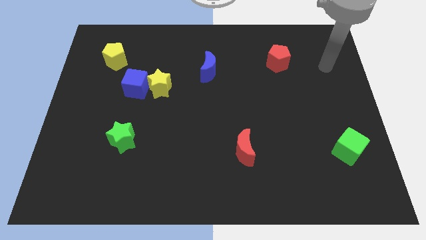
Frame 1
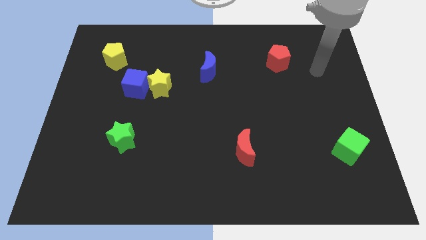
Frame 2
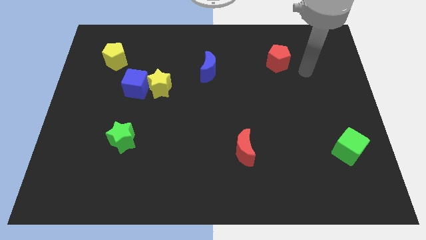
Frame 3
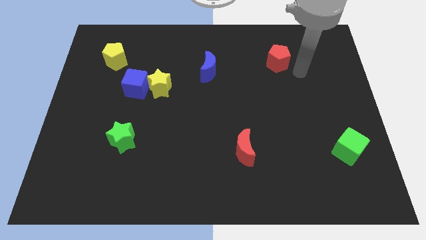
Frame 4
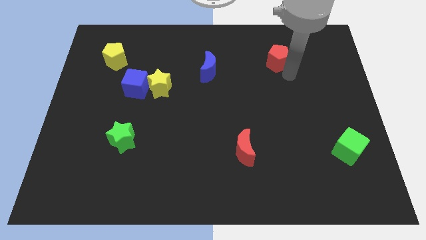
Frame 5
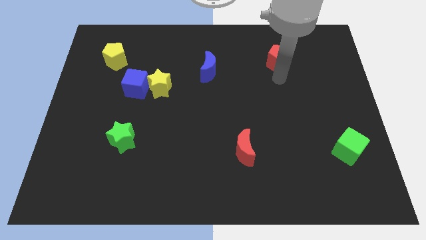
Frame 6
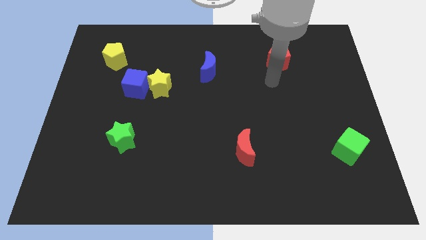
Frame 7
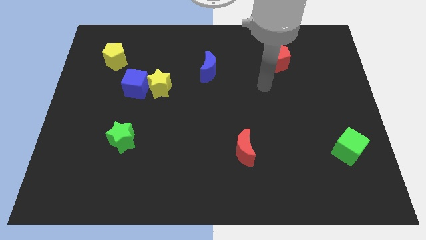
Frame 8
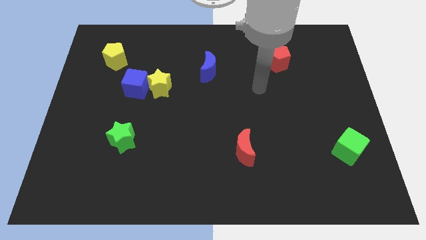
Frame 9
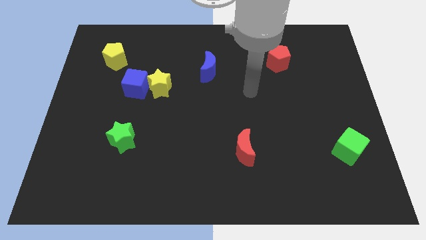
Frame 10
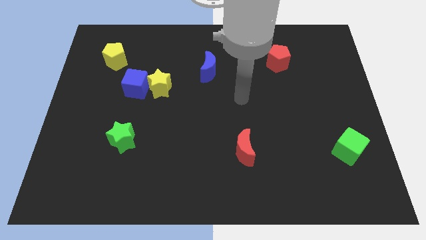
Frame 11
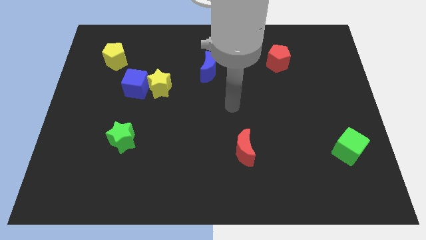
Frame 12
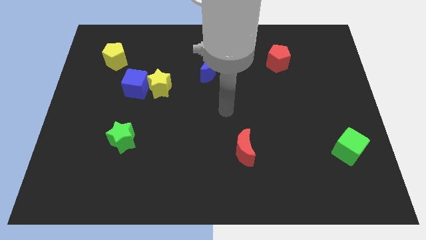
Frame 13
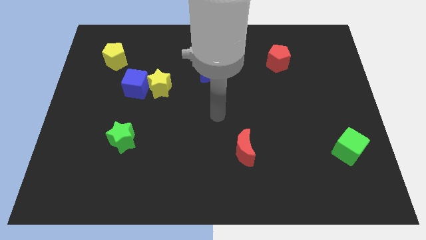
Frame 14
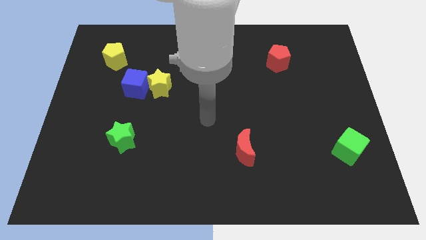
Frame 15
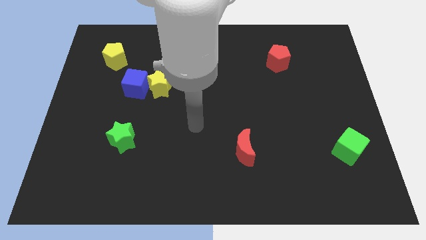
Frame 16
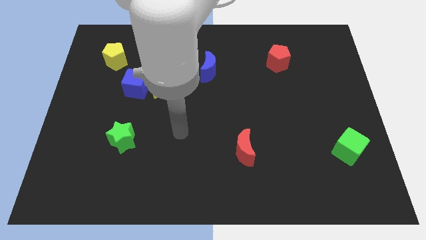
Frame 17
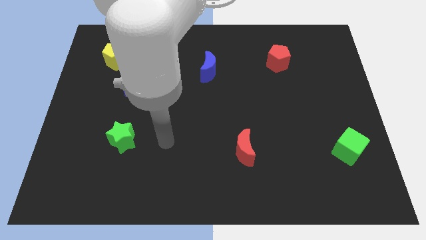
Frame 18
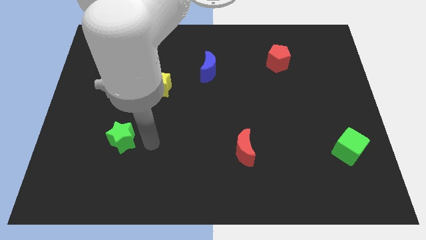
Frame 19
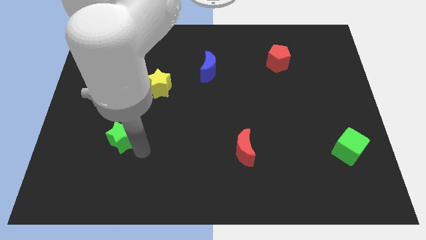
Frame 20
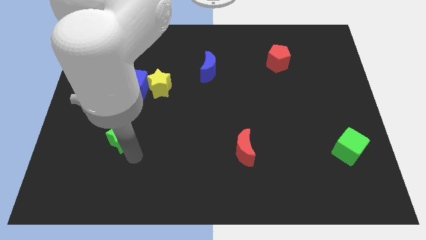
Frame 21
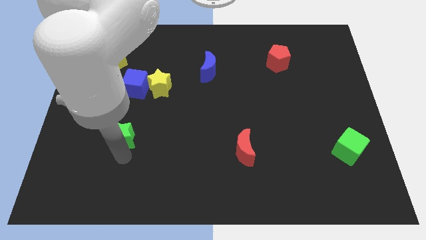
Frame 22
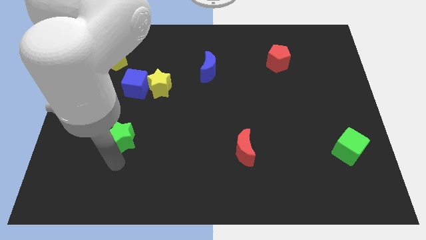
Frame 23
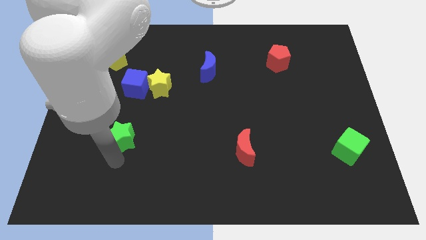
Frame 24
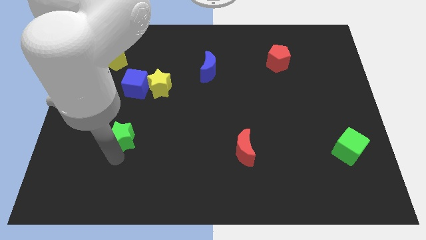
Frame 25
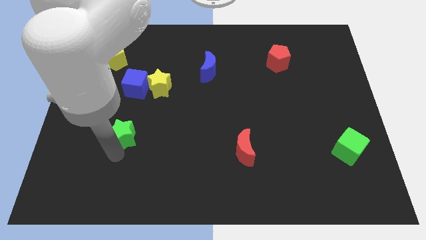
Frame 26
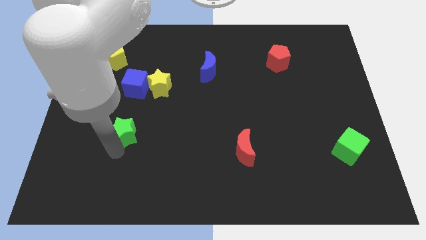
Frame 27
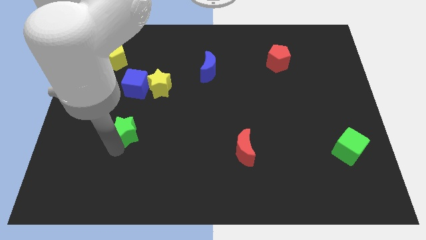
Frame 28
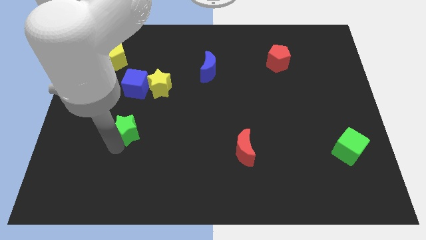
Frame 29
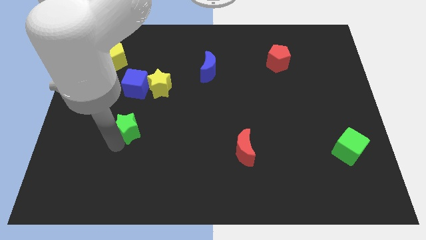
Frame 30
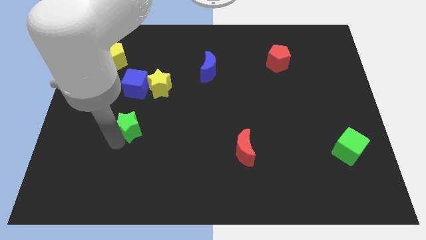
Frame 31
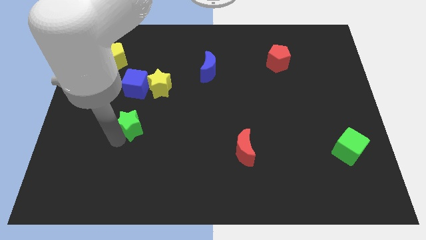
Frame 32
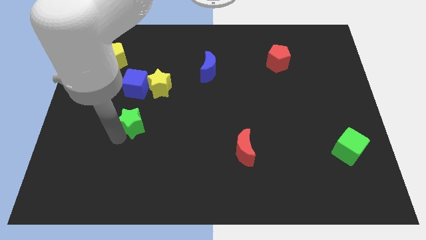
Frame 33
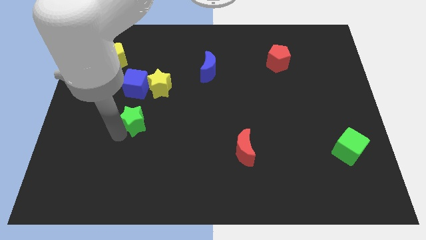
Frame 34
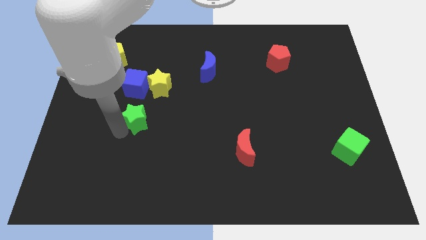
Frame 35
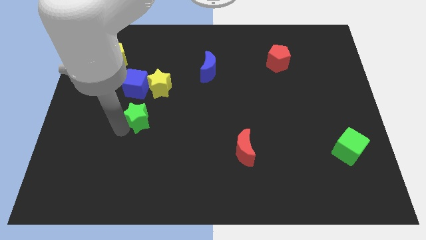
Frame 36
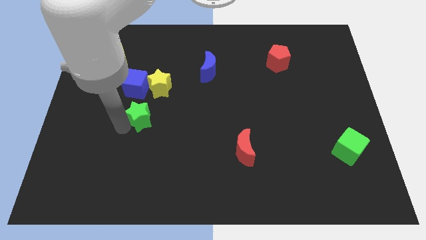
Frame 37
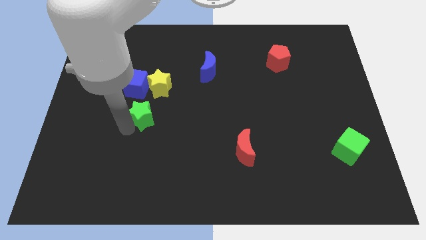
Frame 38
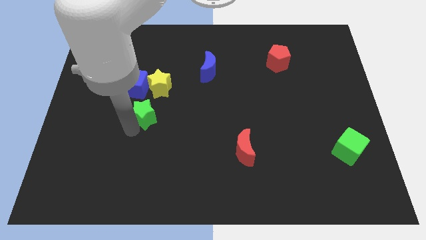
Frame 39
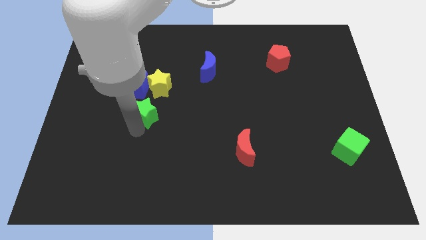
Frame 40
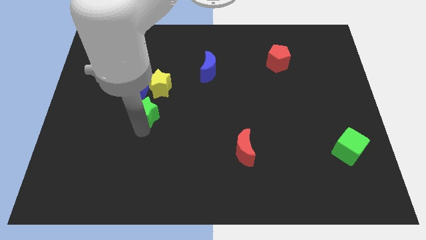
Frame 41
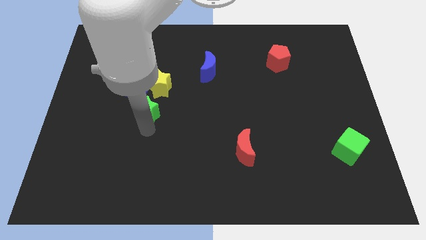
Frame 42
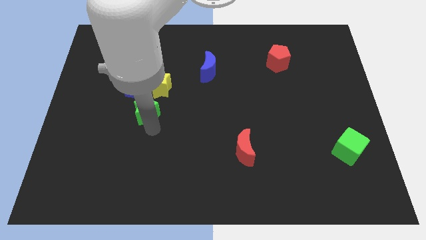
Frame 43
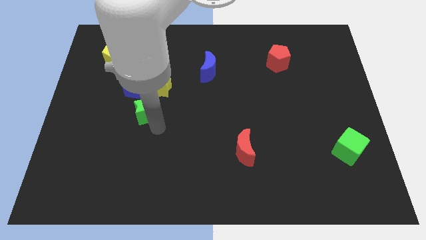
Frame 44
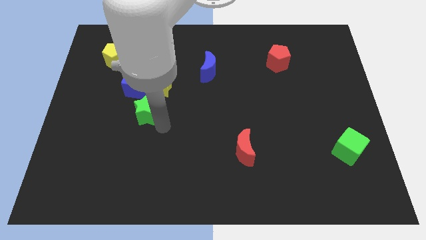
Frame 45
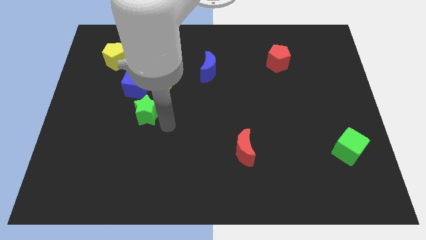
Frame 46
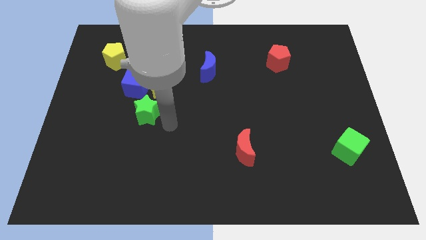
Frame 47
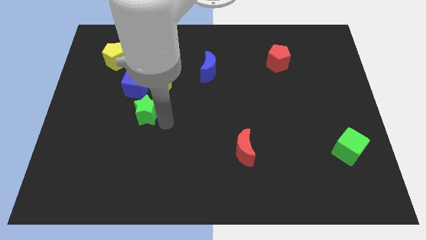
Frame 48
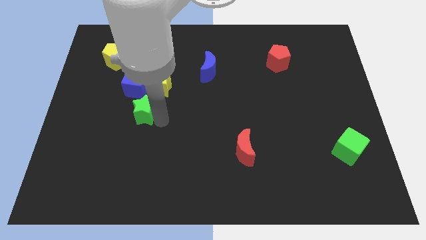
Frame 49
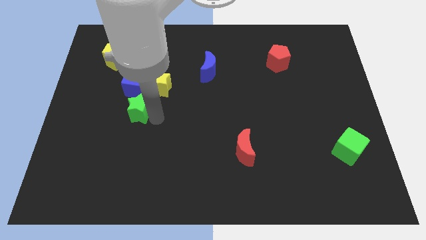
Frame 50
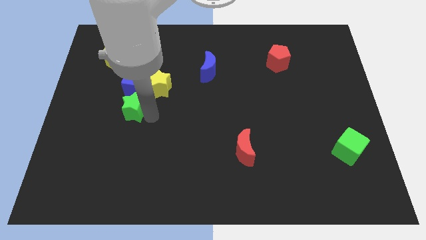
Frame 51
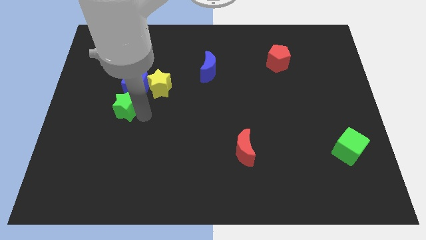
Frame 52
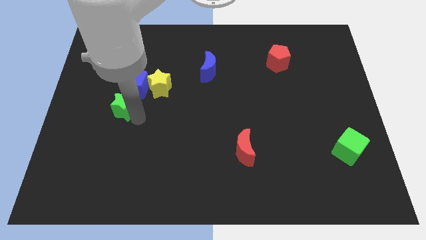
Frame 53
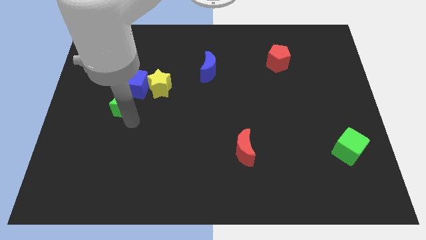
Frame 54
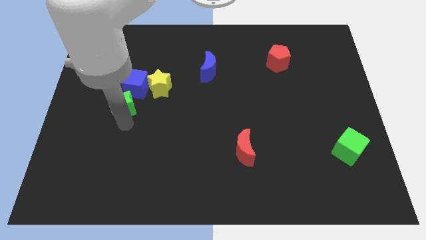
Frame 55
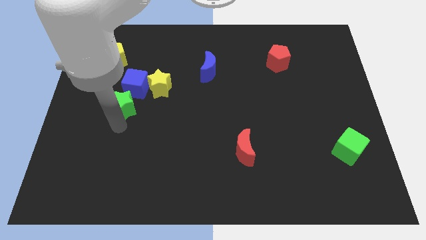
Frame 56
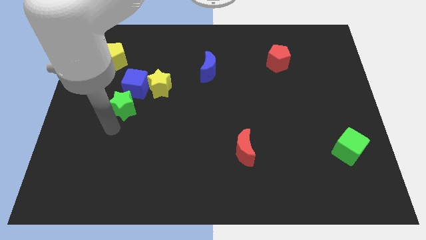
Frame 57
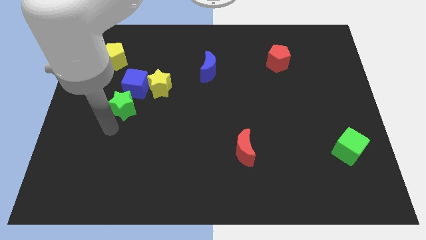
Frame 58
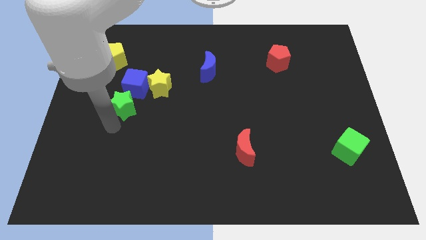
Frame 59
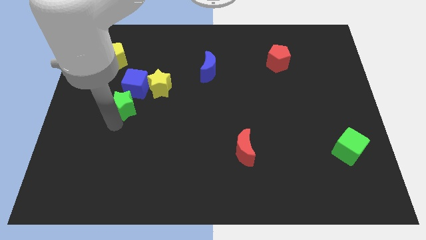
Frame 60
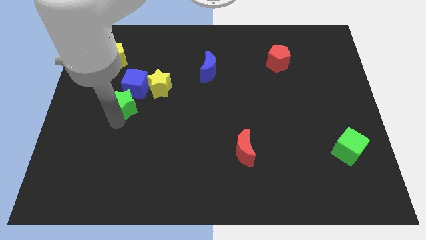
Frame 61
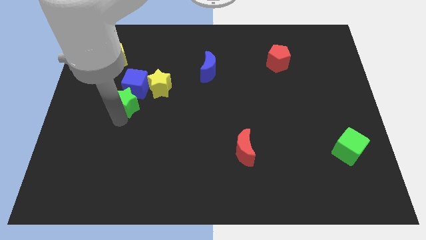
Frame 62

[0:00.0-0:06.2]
slide the green star to the blue cube
